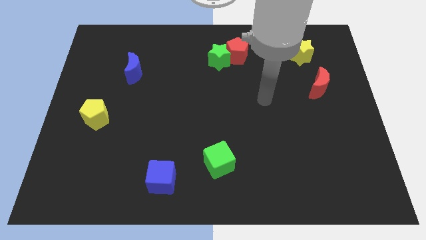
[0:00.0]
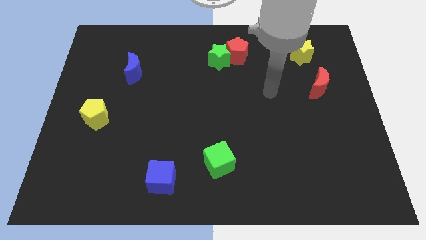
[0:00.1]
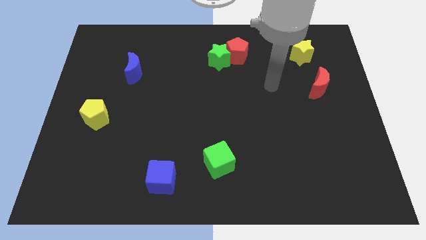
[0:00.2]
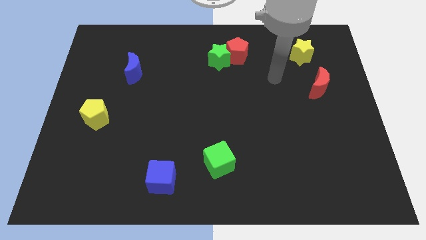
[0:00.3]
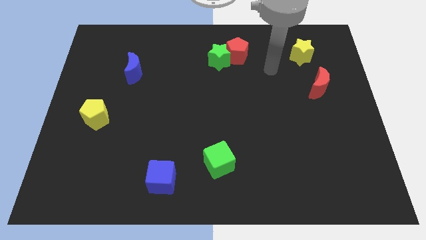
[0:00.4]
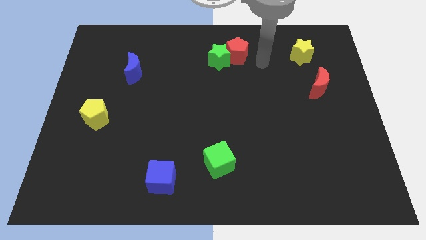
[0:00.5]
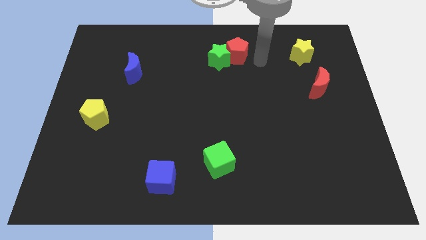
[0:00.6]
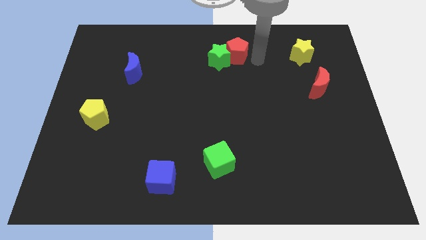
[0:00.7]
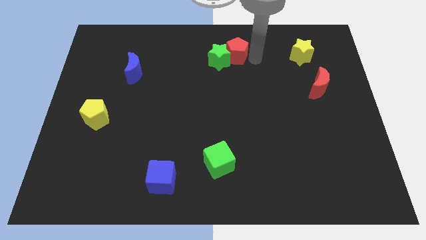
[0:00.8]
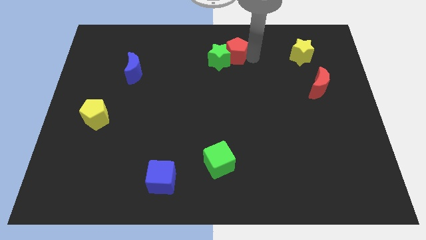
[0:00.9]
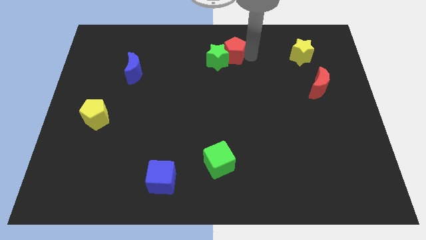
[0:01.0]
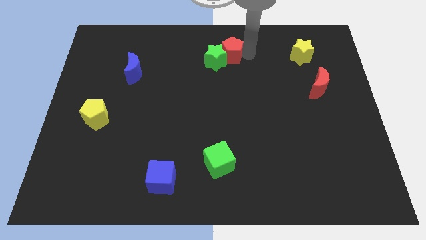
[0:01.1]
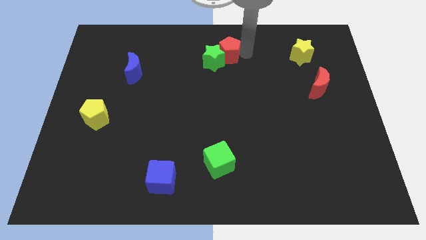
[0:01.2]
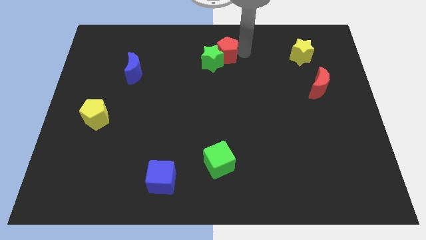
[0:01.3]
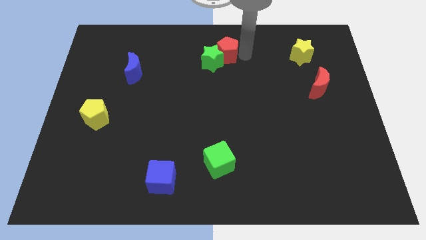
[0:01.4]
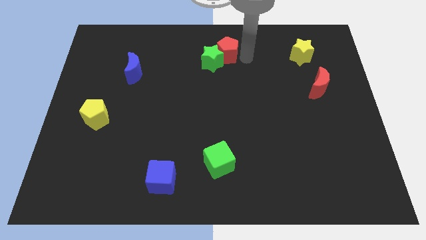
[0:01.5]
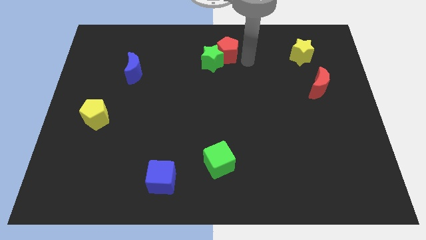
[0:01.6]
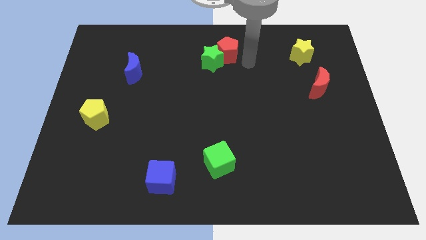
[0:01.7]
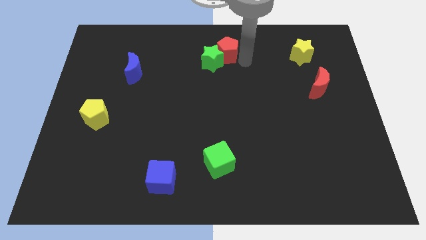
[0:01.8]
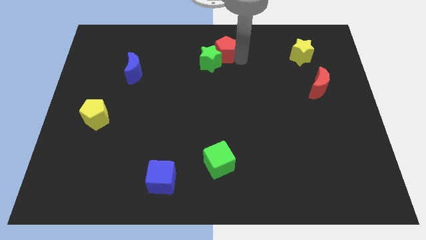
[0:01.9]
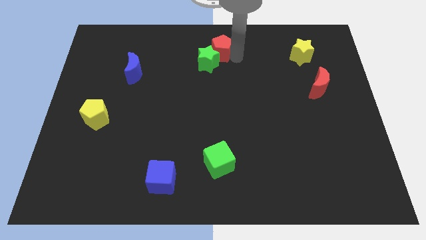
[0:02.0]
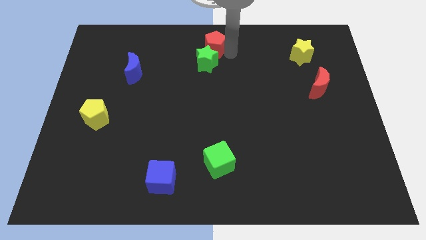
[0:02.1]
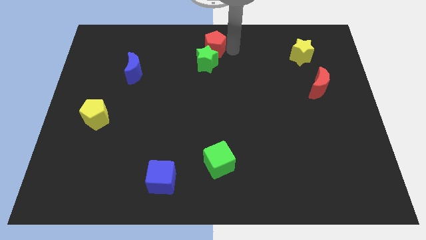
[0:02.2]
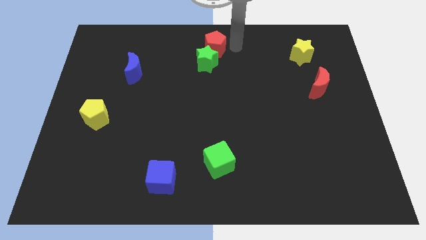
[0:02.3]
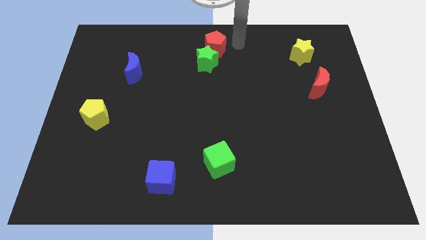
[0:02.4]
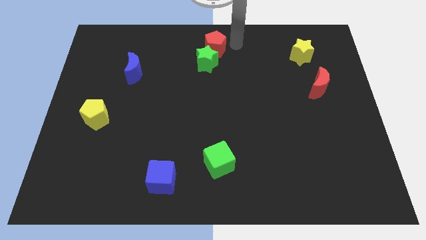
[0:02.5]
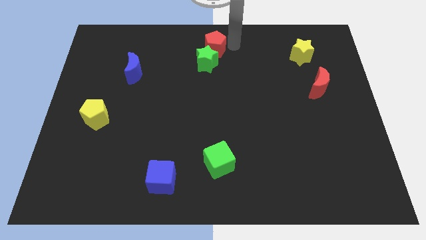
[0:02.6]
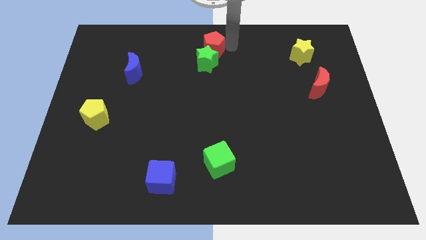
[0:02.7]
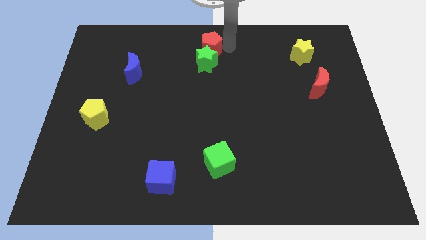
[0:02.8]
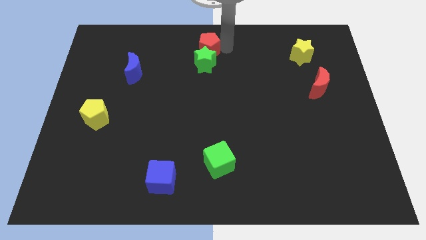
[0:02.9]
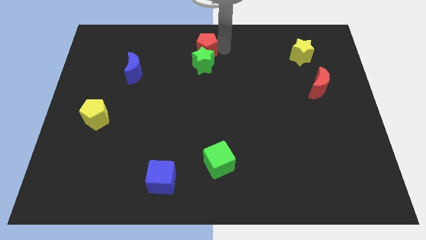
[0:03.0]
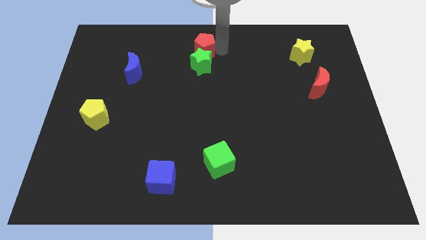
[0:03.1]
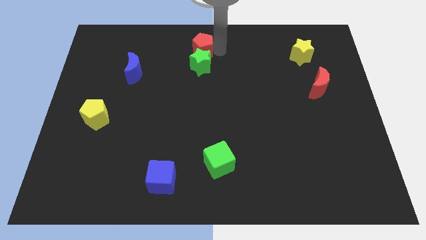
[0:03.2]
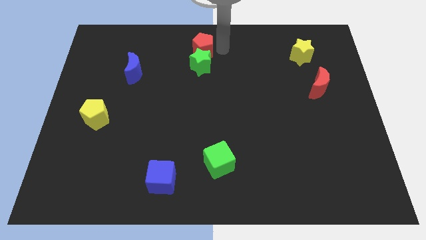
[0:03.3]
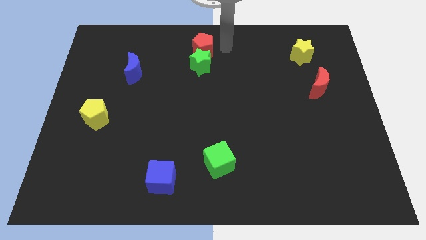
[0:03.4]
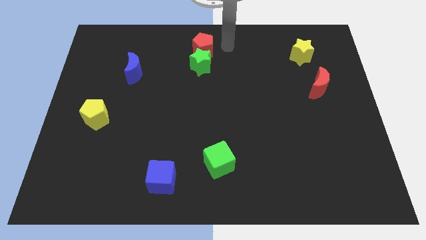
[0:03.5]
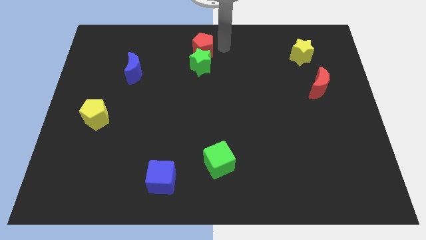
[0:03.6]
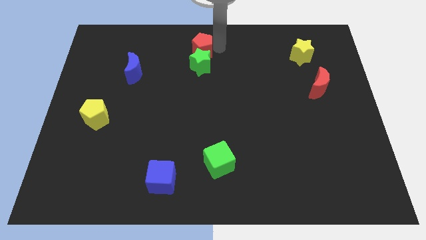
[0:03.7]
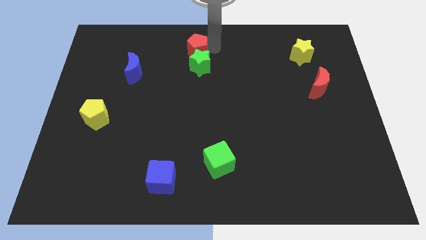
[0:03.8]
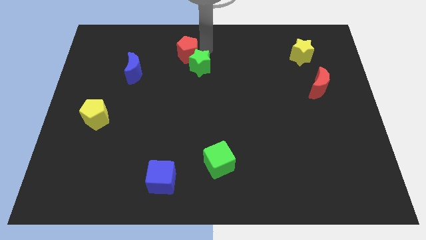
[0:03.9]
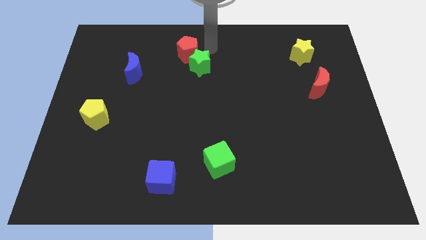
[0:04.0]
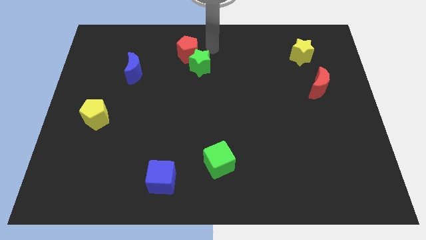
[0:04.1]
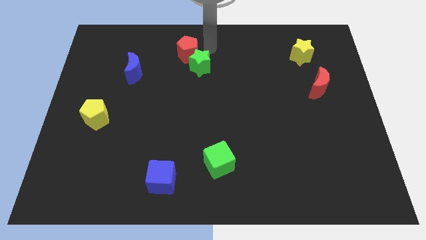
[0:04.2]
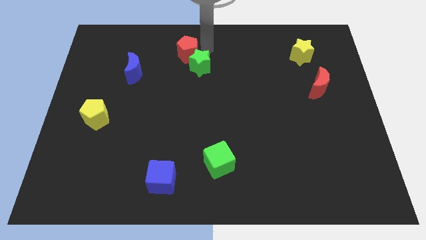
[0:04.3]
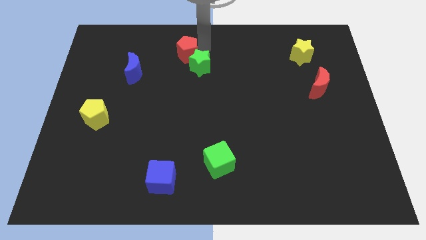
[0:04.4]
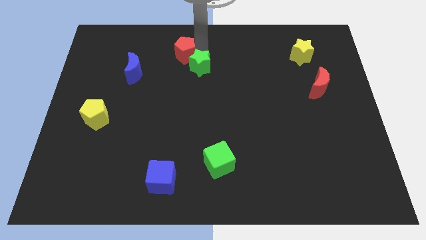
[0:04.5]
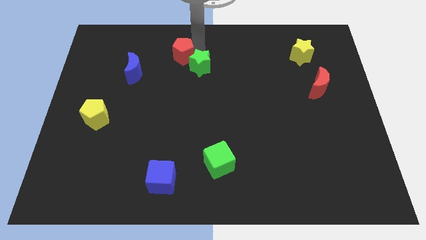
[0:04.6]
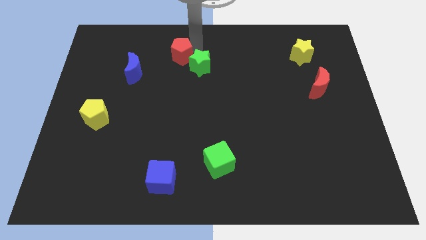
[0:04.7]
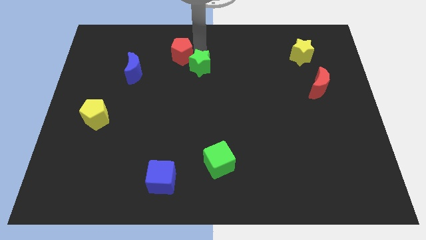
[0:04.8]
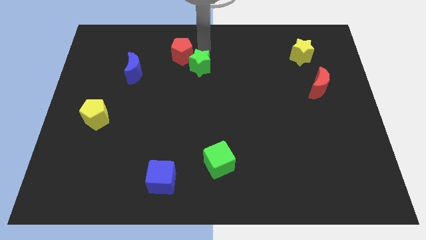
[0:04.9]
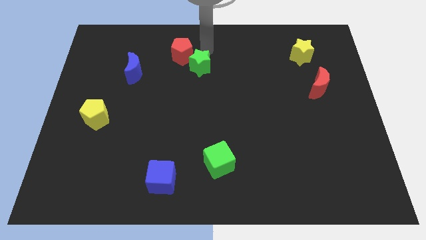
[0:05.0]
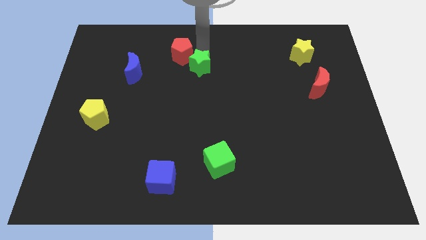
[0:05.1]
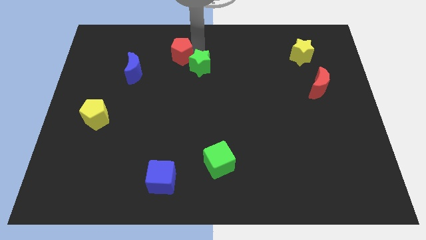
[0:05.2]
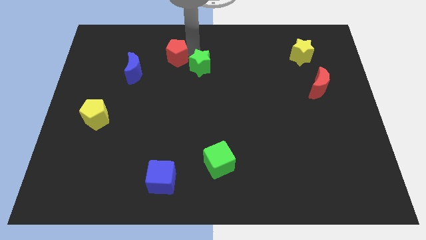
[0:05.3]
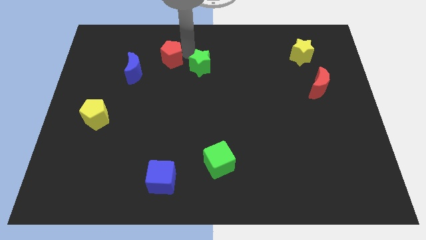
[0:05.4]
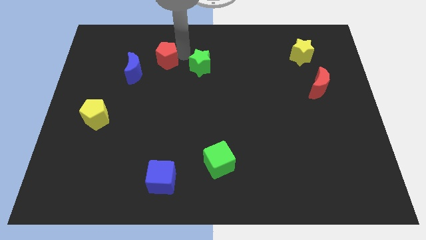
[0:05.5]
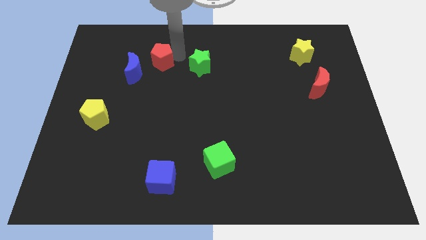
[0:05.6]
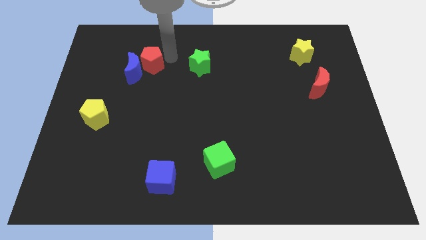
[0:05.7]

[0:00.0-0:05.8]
put the red pentagon close to the blue moon
